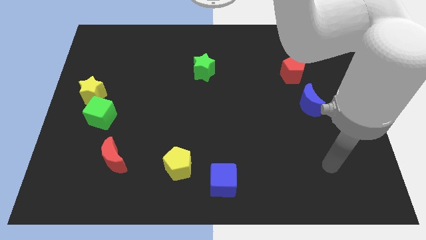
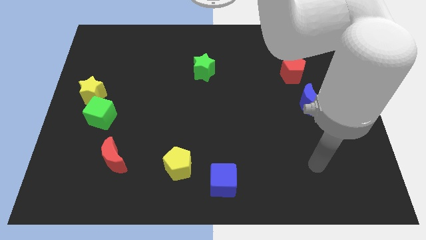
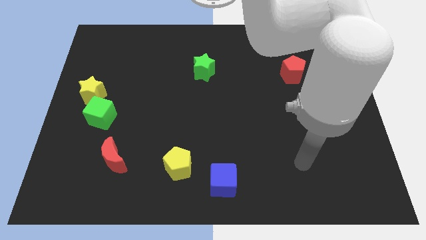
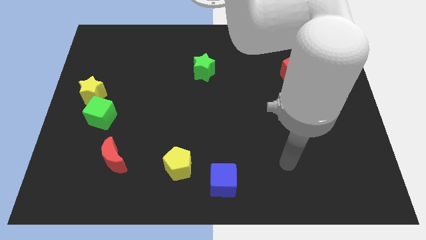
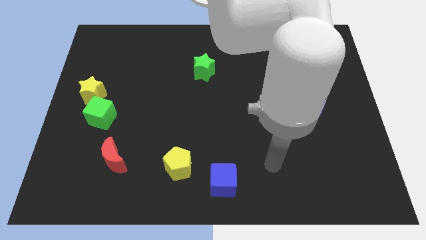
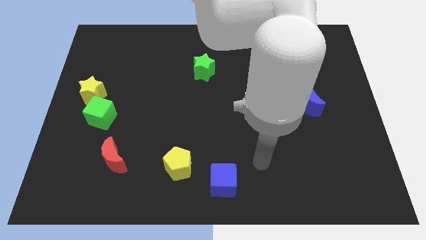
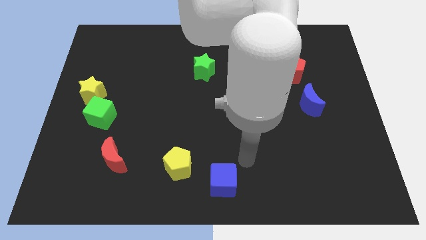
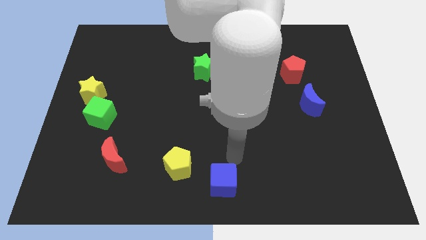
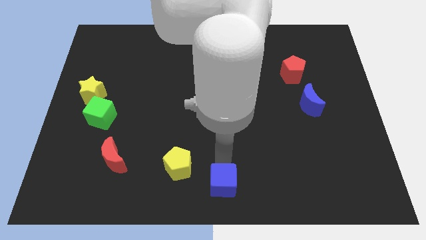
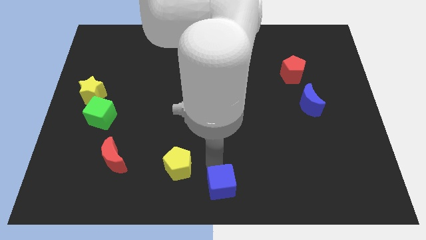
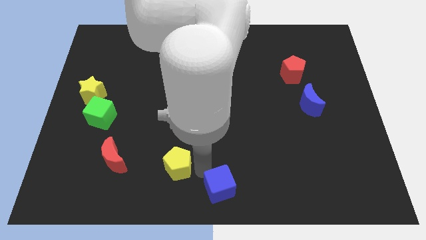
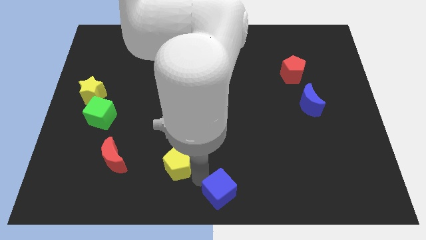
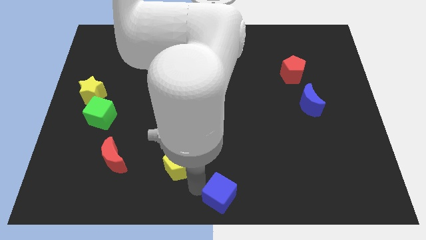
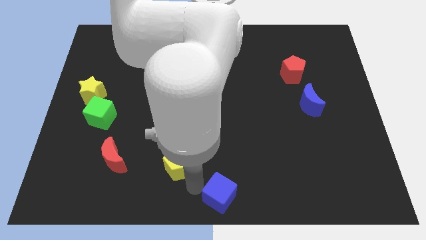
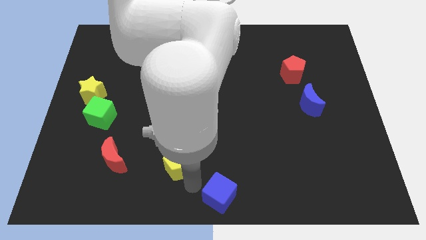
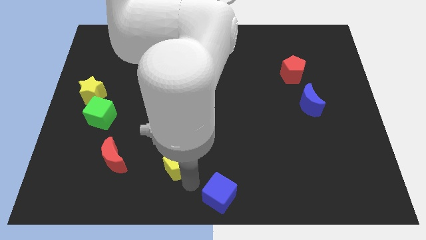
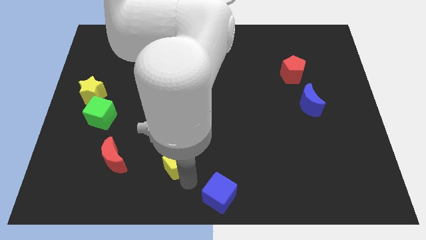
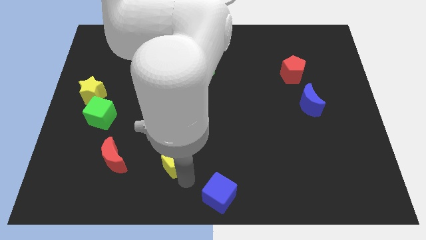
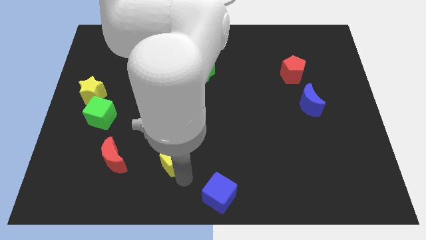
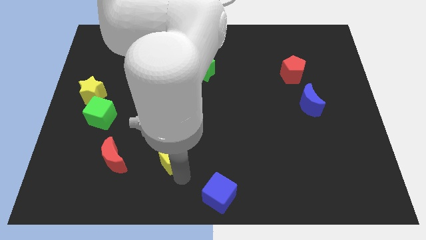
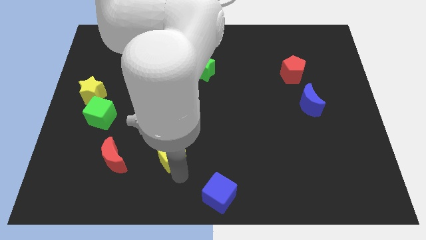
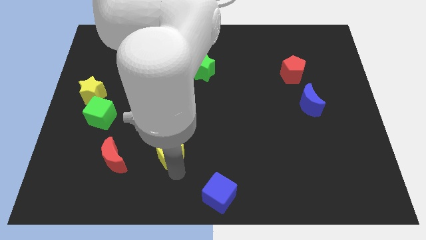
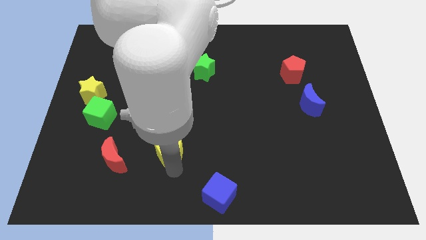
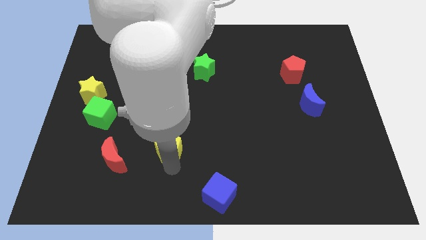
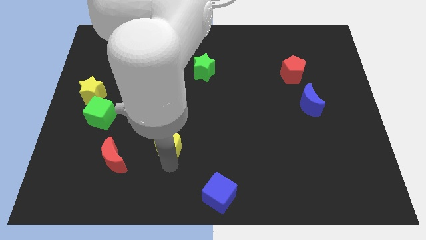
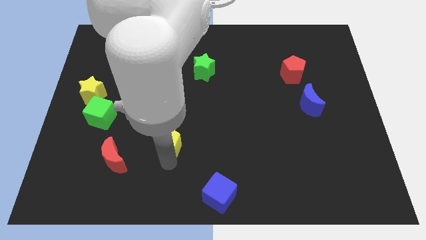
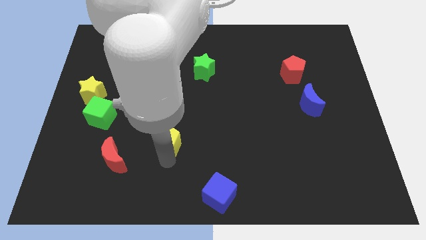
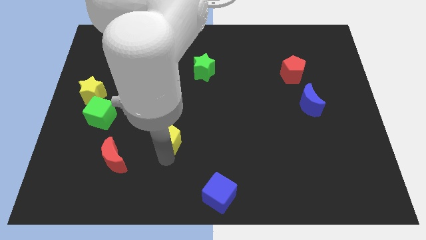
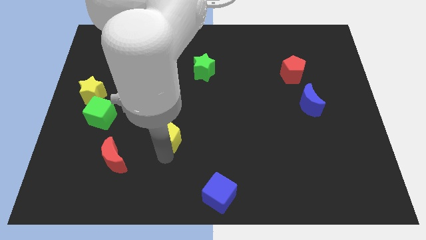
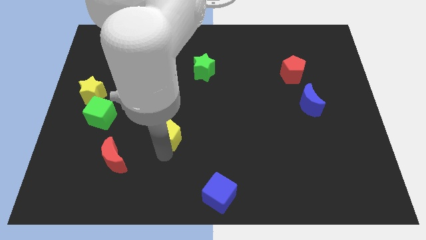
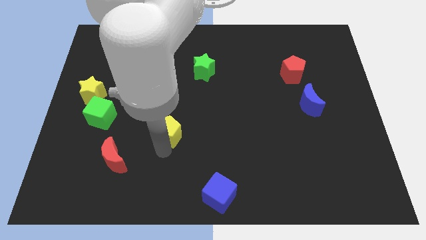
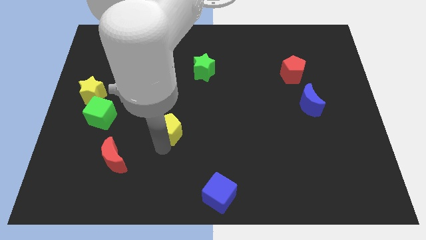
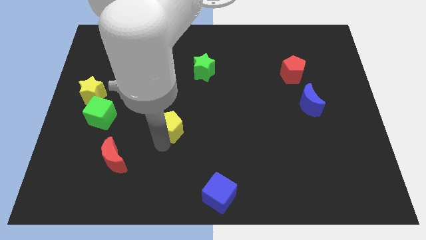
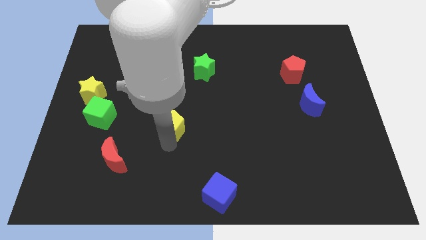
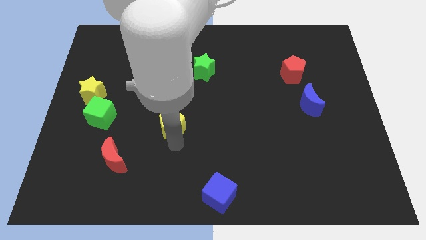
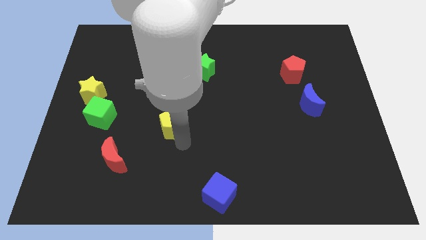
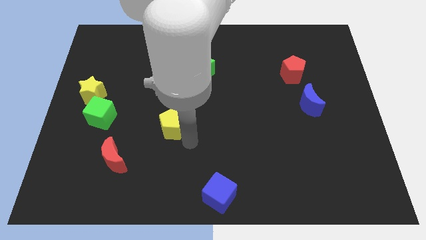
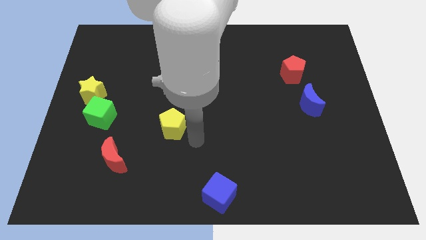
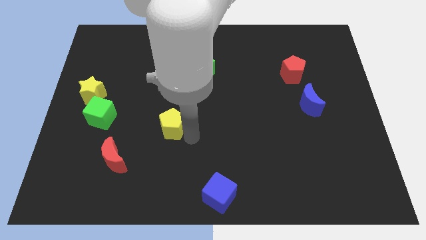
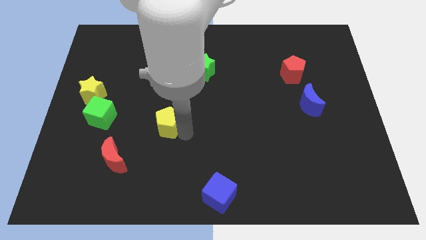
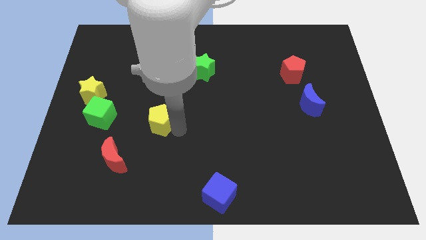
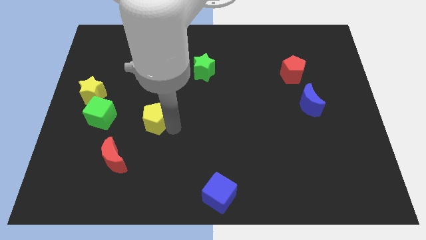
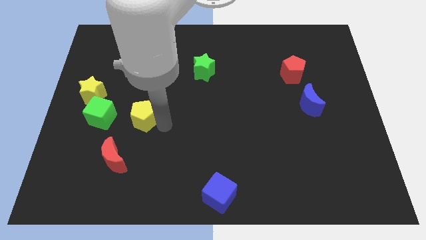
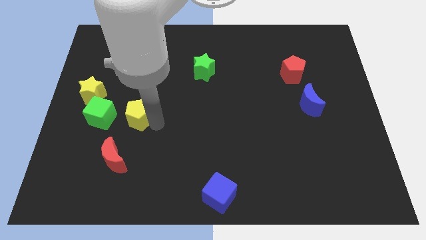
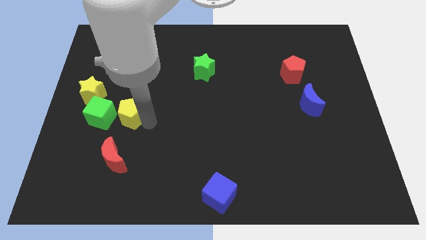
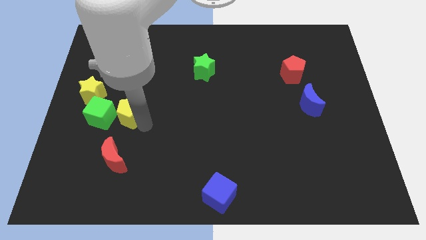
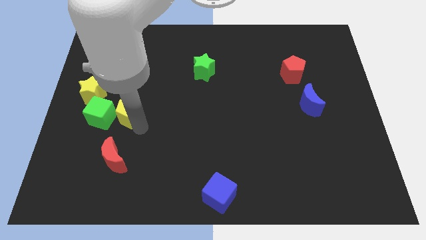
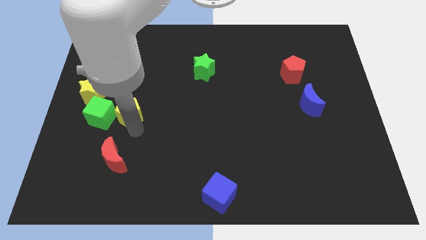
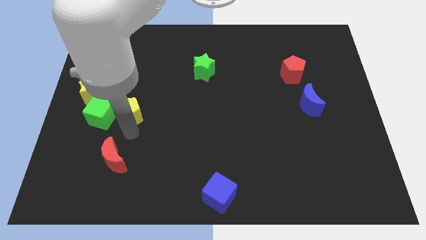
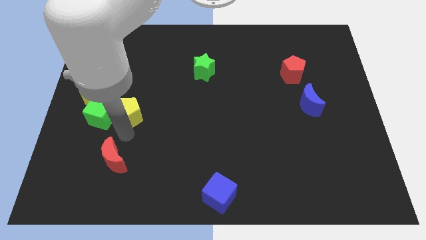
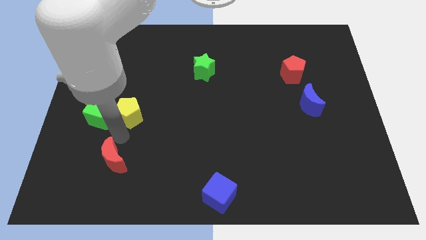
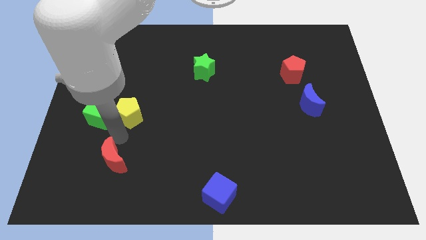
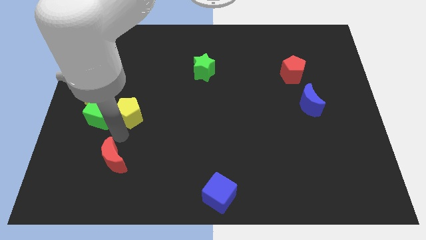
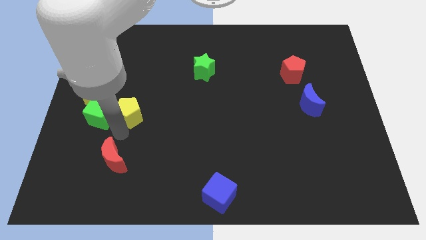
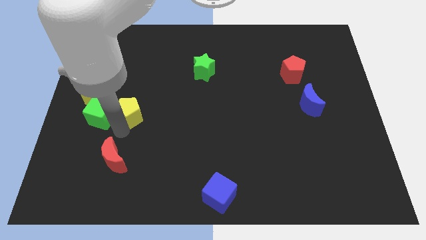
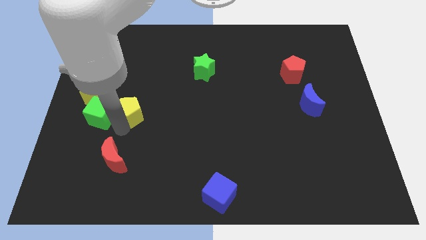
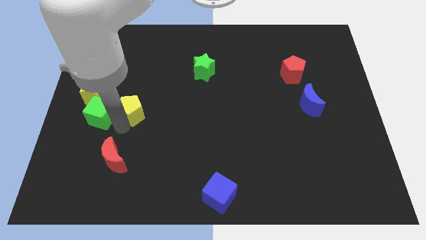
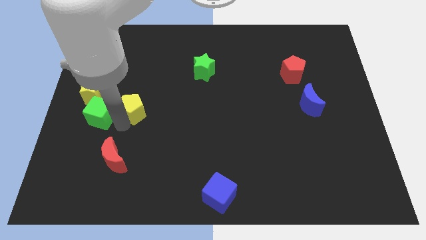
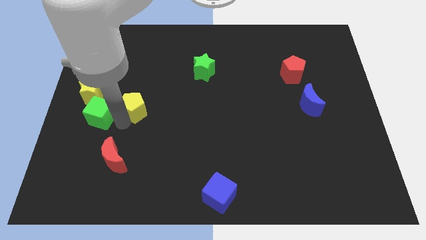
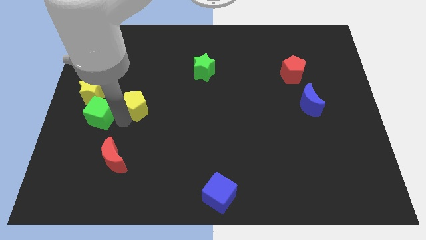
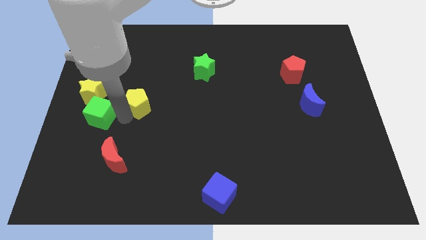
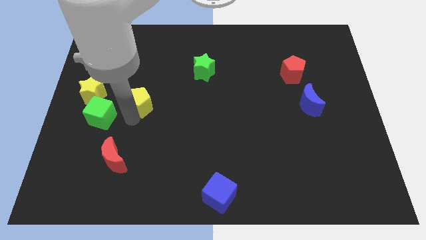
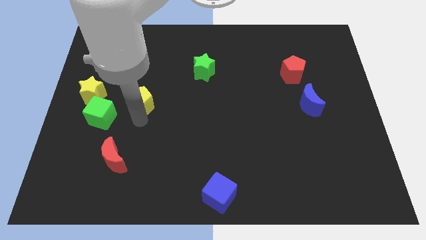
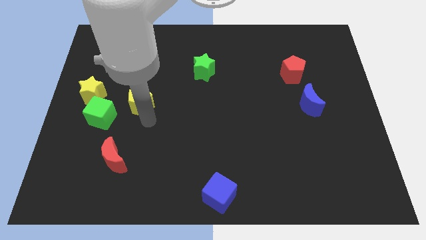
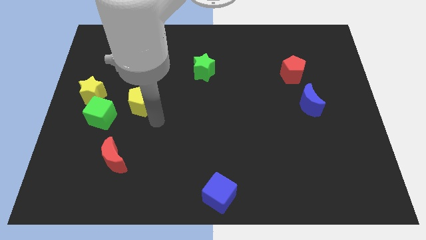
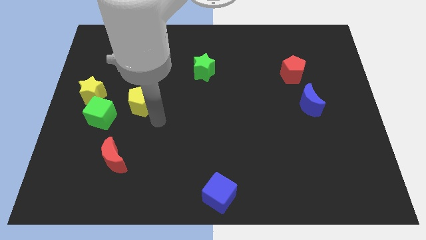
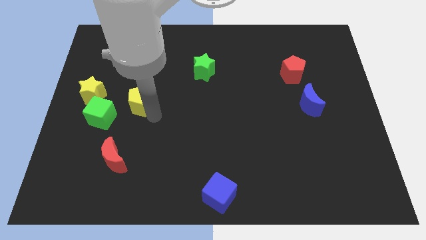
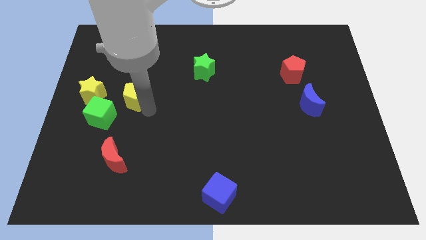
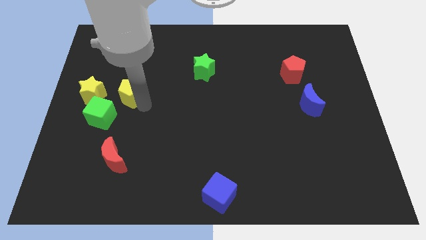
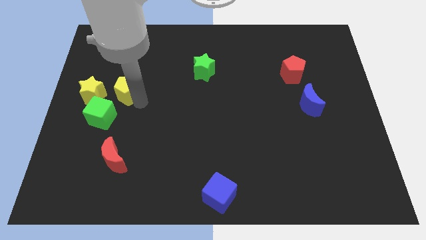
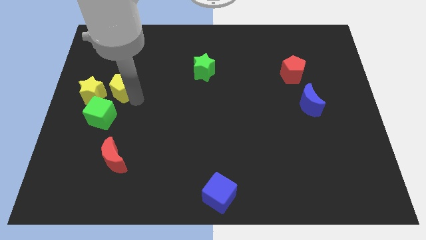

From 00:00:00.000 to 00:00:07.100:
slide the yellow pentagon to the top of the green cube

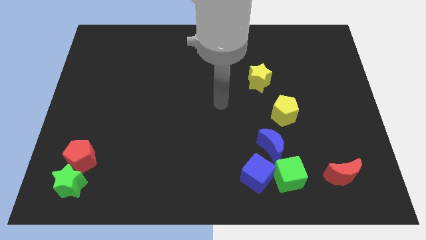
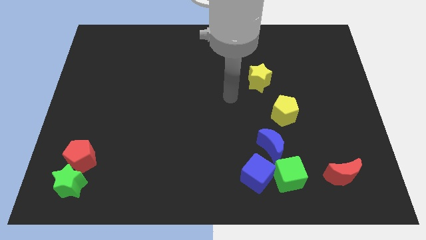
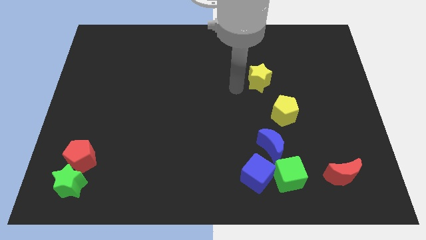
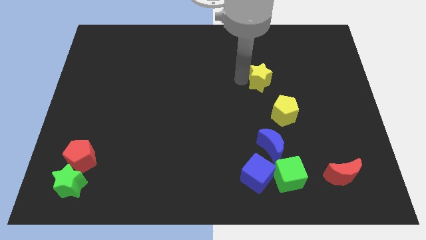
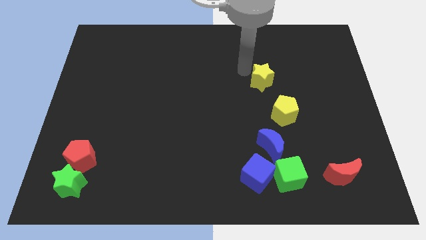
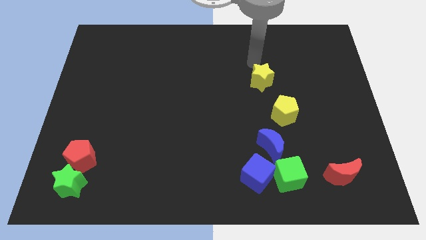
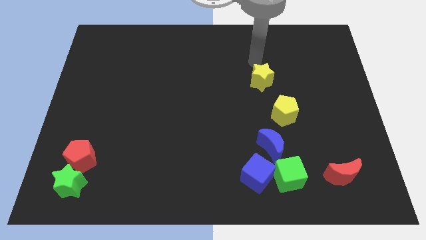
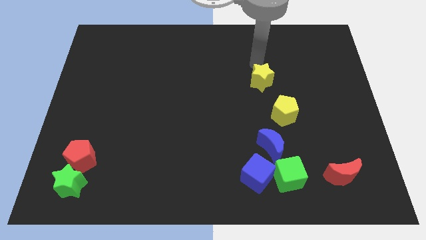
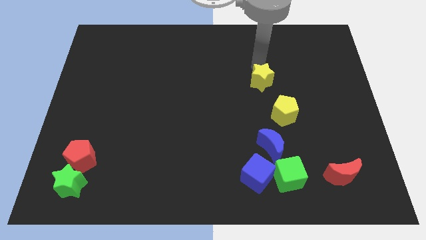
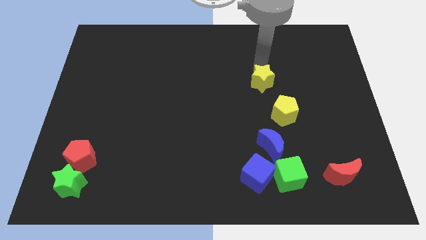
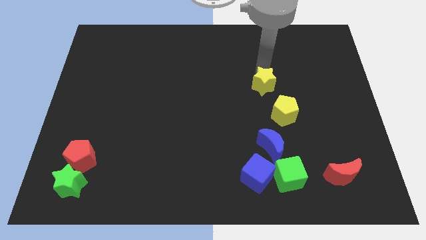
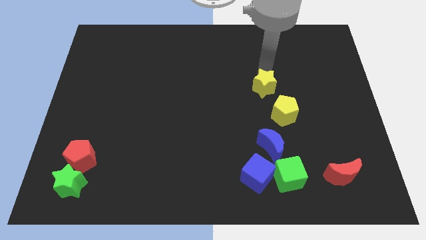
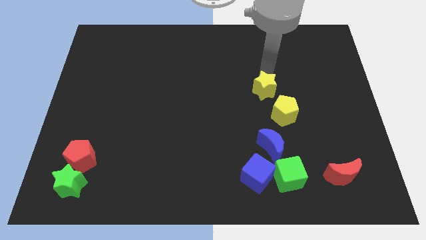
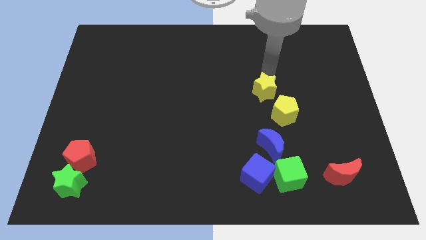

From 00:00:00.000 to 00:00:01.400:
move the yellow star above the blue moon
